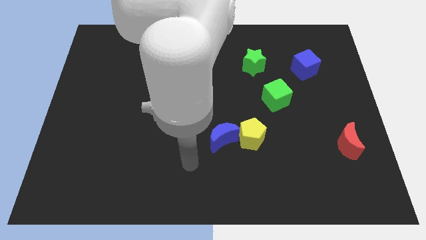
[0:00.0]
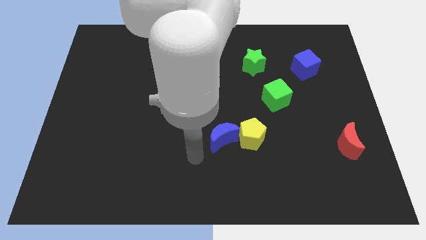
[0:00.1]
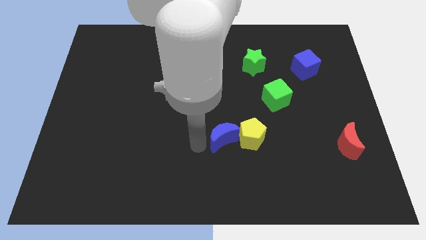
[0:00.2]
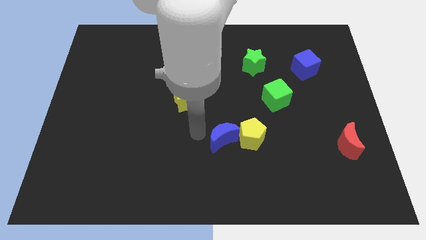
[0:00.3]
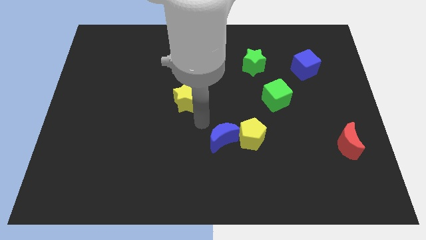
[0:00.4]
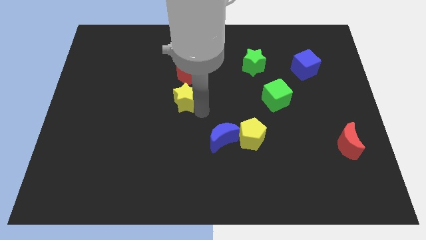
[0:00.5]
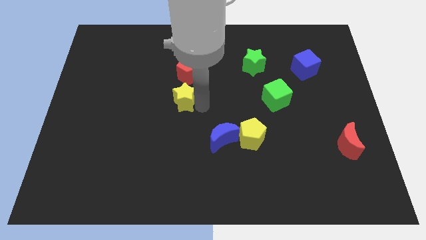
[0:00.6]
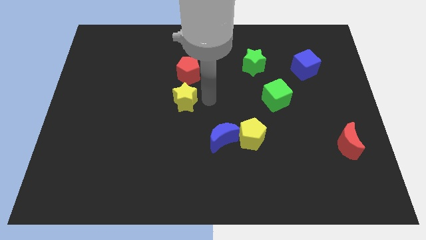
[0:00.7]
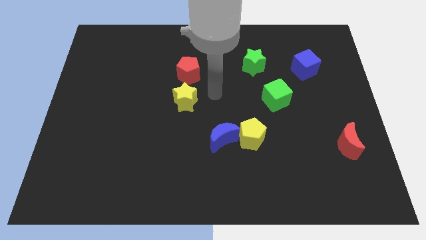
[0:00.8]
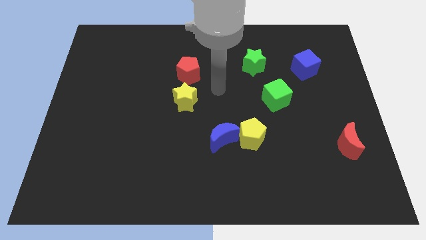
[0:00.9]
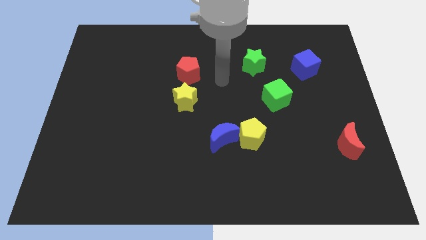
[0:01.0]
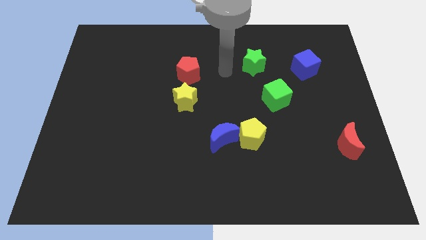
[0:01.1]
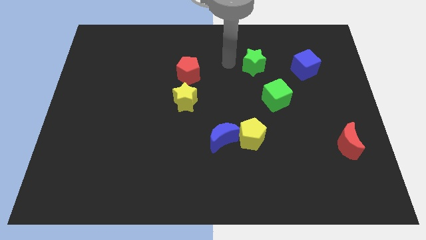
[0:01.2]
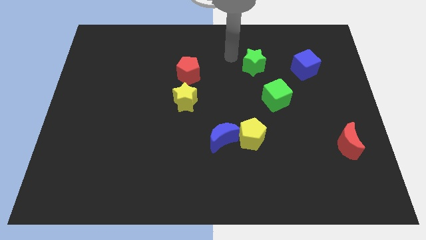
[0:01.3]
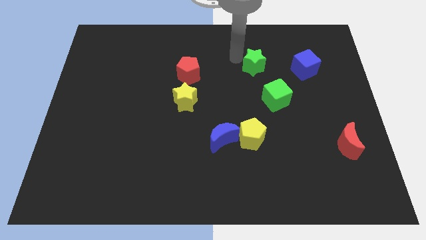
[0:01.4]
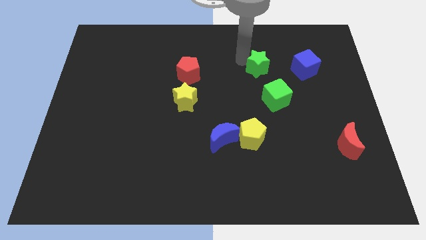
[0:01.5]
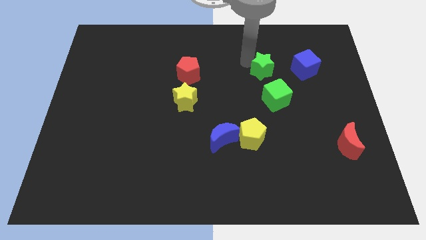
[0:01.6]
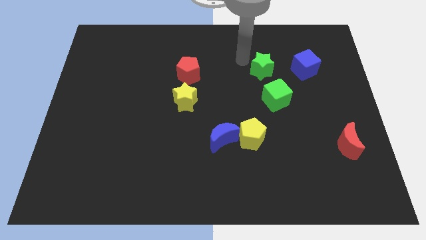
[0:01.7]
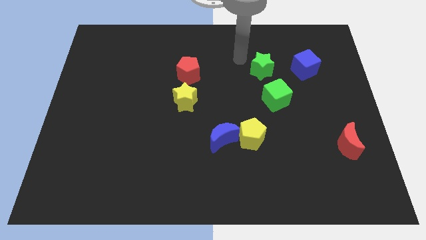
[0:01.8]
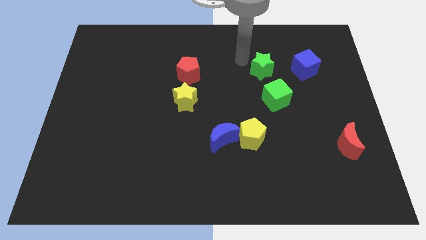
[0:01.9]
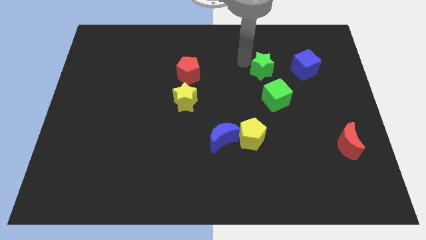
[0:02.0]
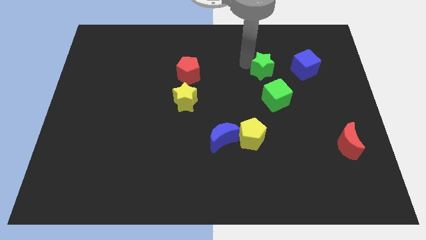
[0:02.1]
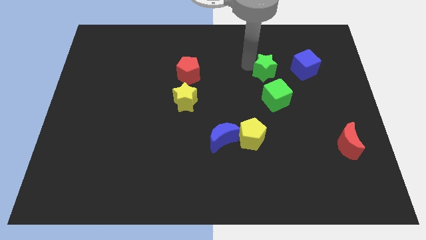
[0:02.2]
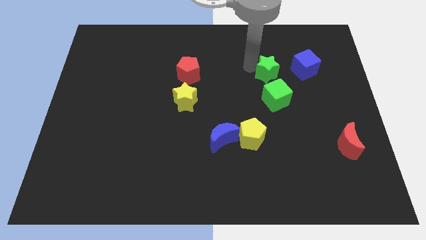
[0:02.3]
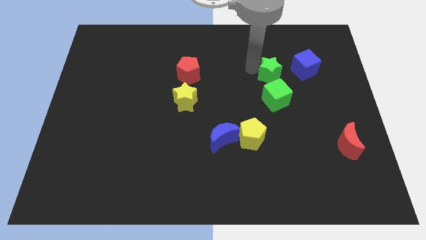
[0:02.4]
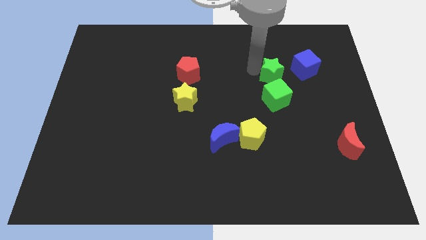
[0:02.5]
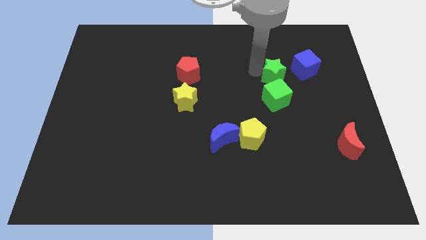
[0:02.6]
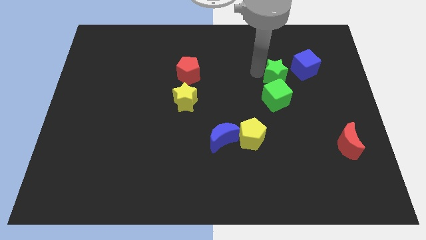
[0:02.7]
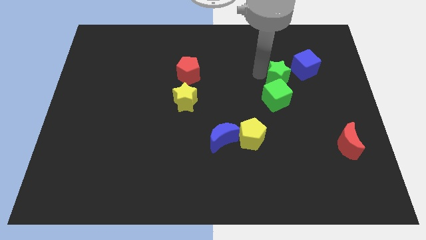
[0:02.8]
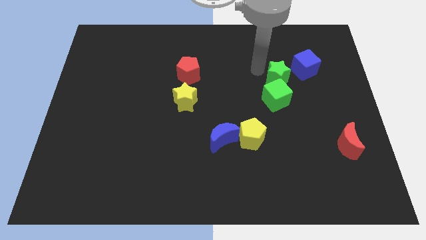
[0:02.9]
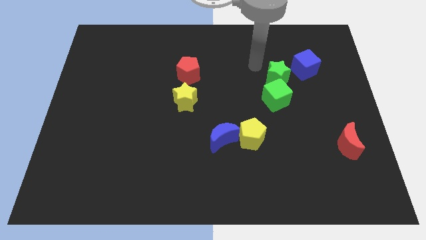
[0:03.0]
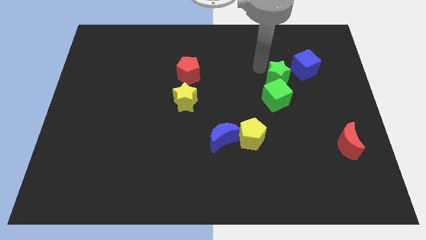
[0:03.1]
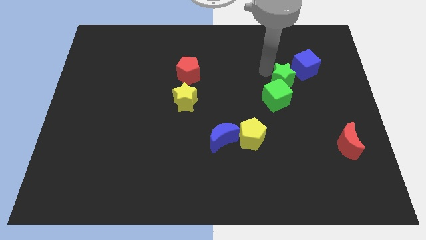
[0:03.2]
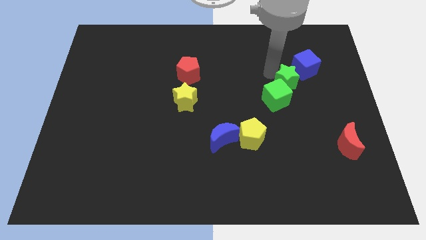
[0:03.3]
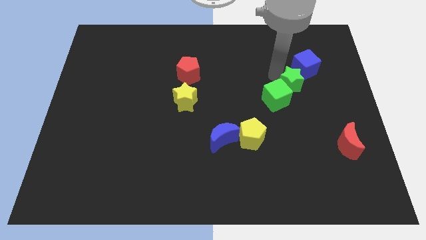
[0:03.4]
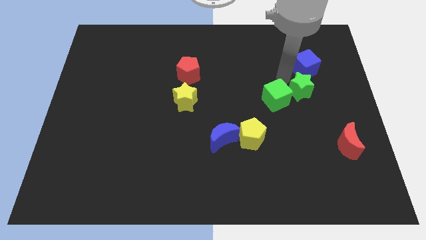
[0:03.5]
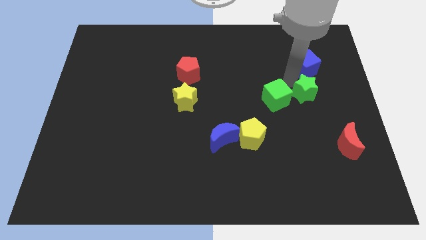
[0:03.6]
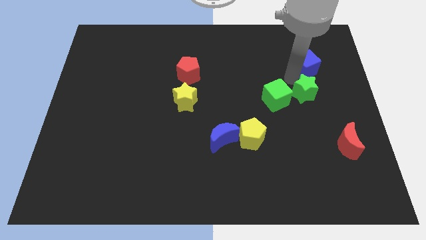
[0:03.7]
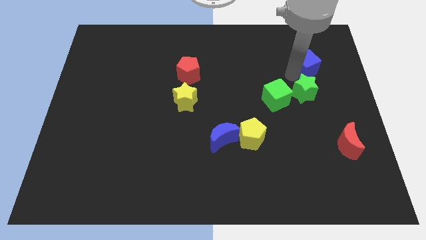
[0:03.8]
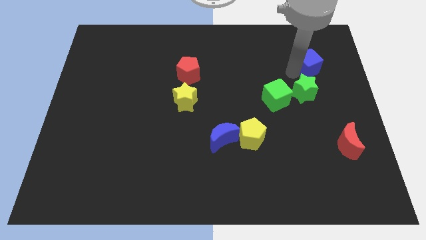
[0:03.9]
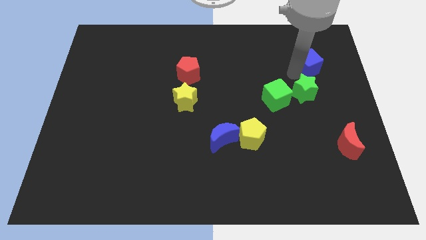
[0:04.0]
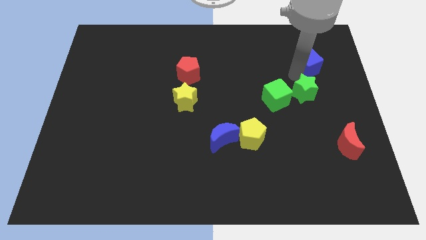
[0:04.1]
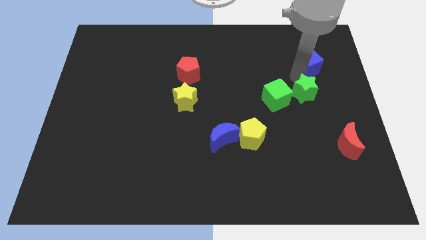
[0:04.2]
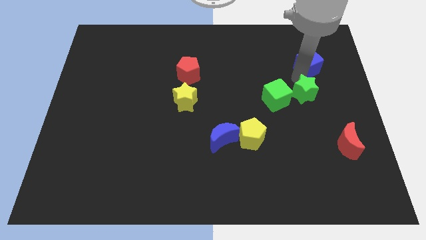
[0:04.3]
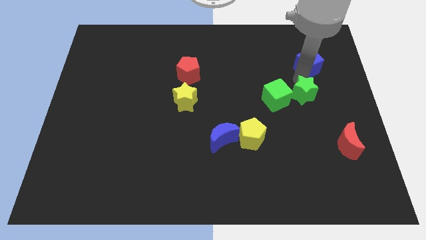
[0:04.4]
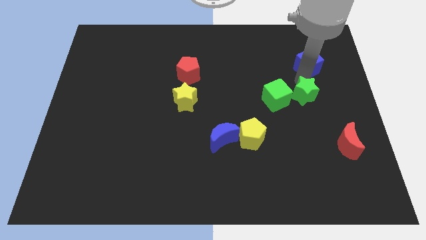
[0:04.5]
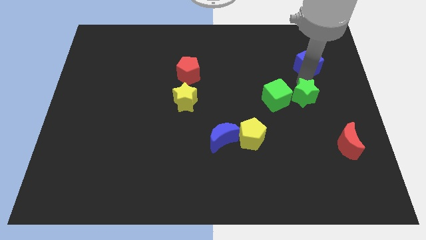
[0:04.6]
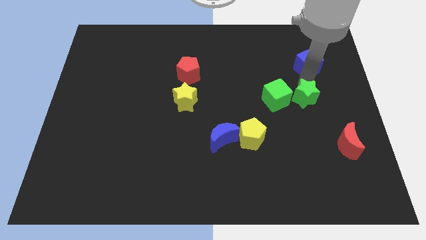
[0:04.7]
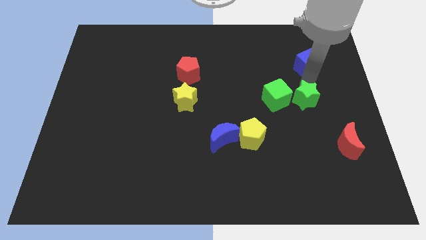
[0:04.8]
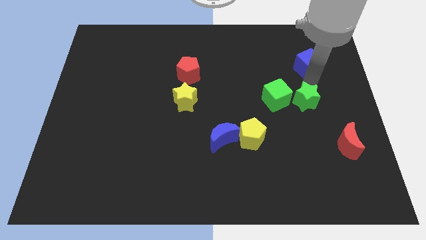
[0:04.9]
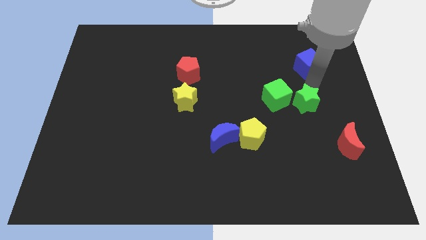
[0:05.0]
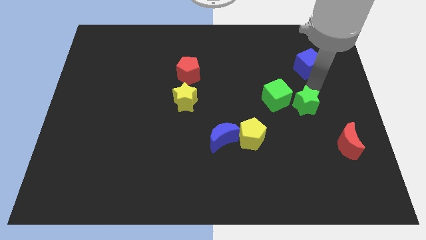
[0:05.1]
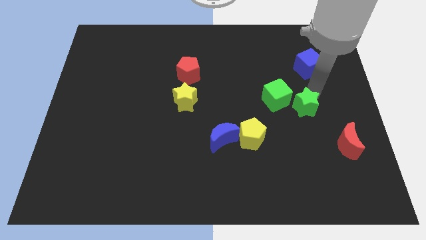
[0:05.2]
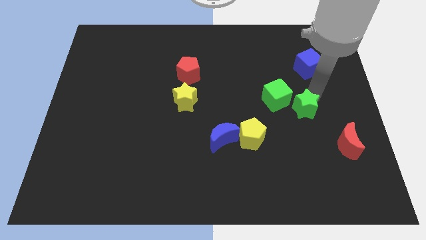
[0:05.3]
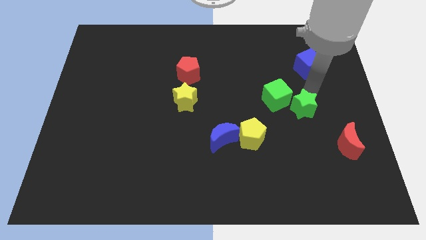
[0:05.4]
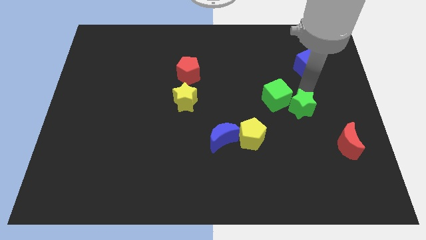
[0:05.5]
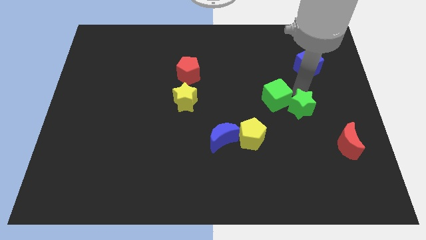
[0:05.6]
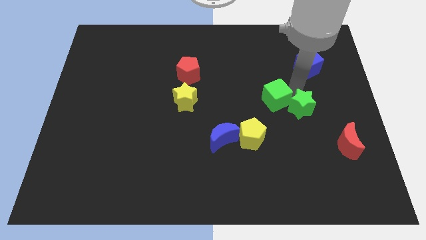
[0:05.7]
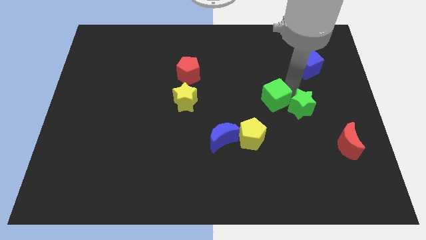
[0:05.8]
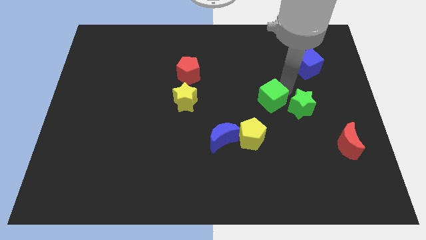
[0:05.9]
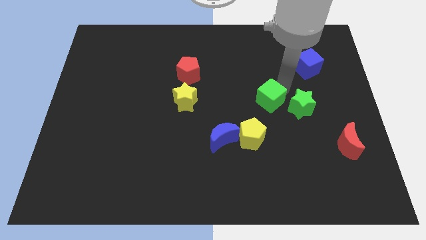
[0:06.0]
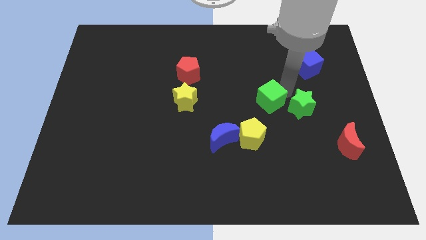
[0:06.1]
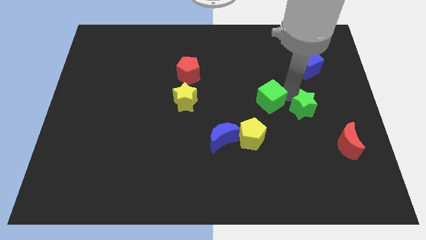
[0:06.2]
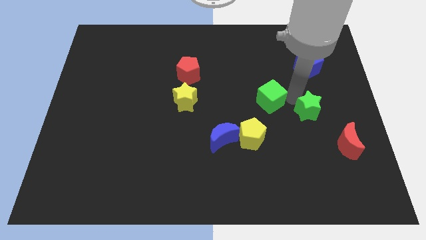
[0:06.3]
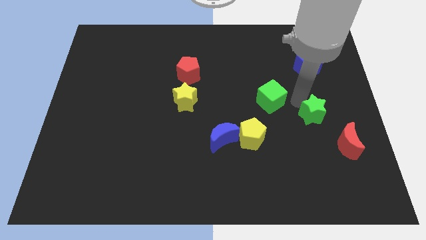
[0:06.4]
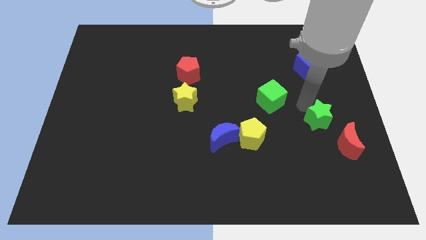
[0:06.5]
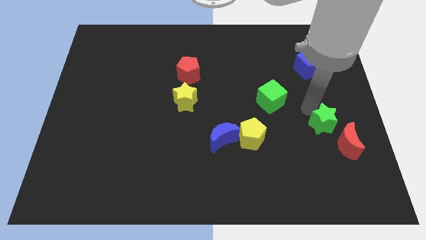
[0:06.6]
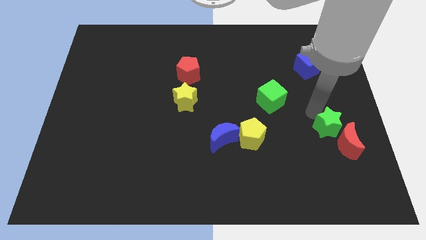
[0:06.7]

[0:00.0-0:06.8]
slide the green star next to the red moon

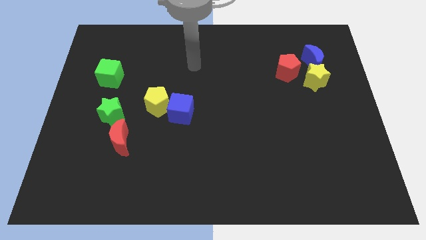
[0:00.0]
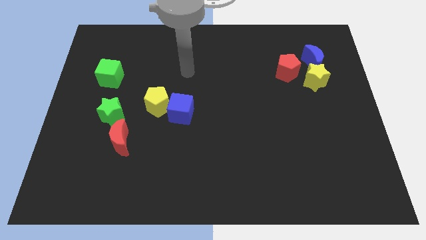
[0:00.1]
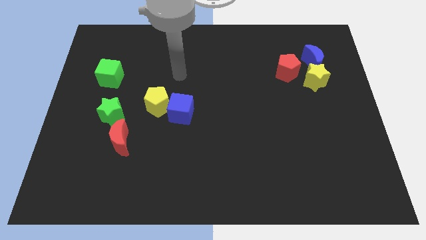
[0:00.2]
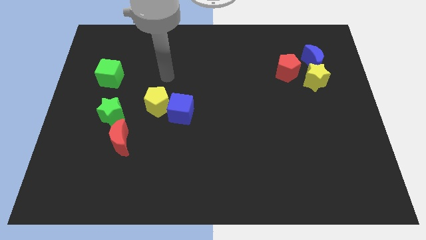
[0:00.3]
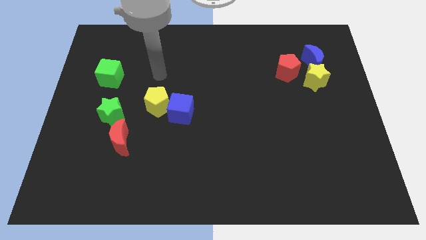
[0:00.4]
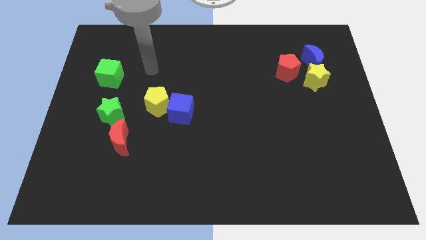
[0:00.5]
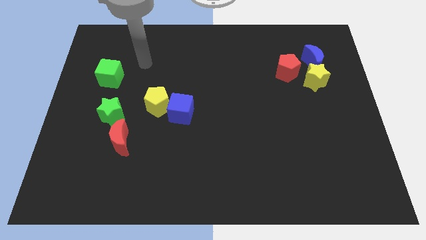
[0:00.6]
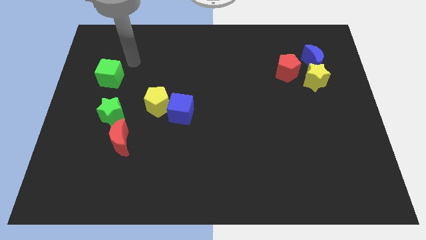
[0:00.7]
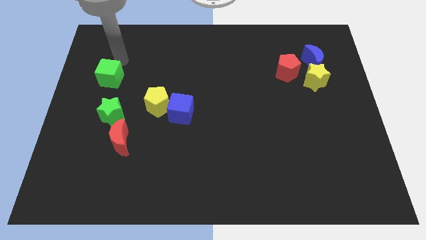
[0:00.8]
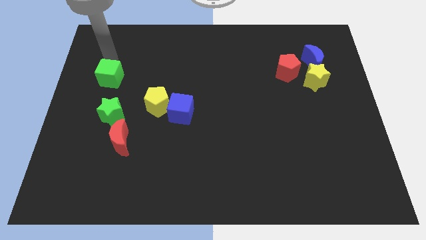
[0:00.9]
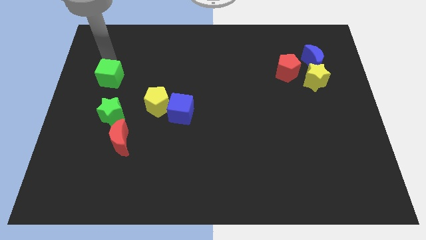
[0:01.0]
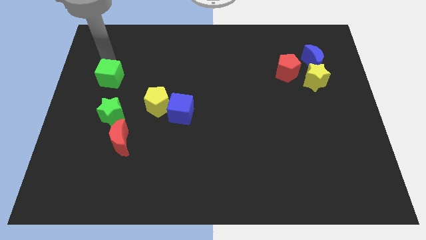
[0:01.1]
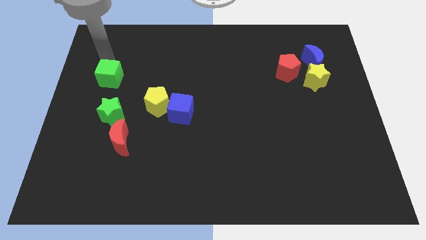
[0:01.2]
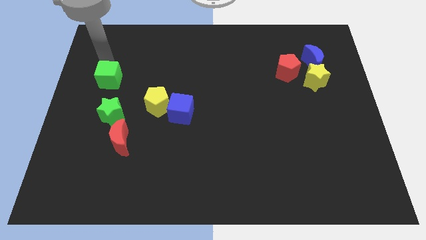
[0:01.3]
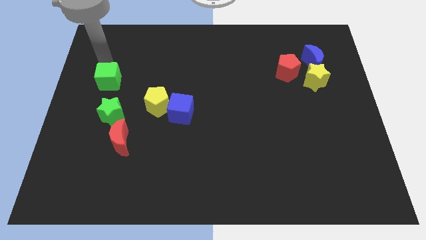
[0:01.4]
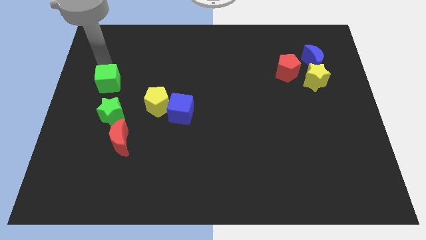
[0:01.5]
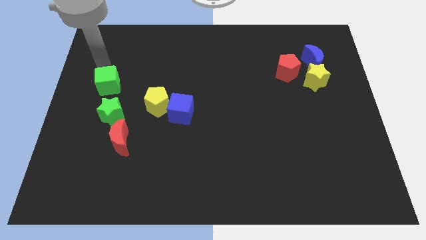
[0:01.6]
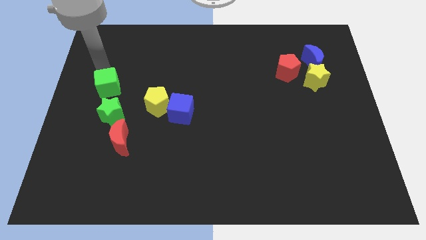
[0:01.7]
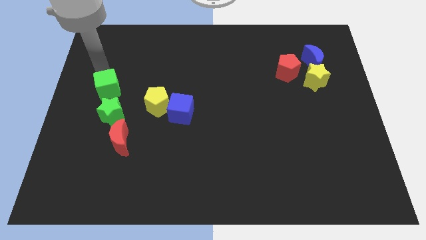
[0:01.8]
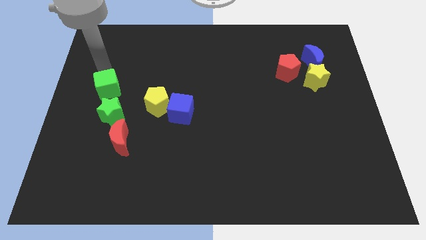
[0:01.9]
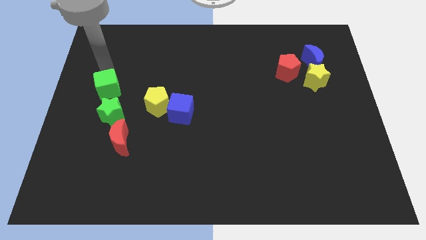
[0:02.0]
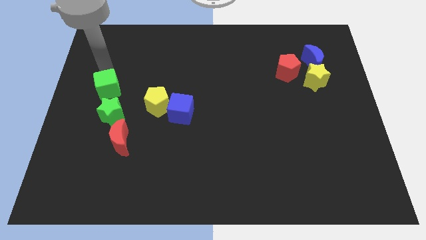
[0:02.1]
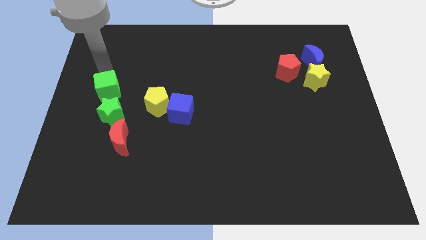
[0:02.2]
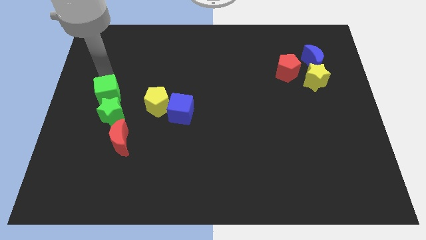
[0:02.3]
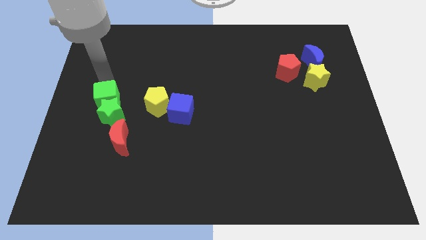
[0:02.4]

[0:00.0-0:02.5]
move the green cube next to the green star
